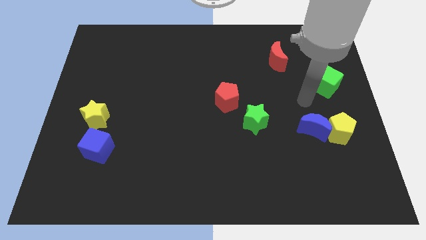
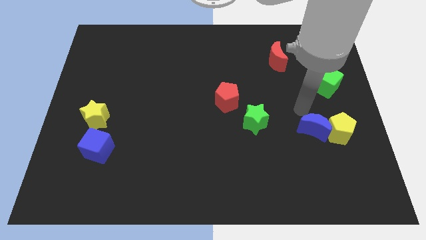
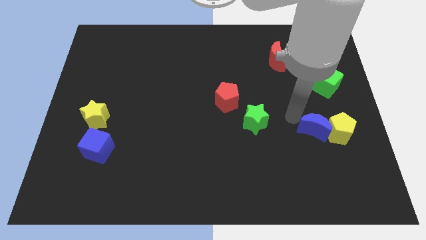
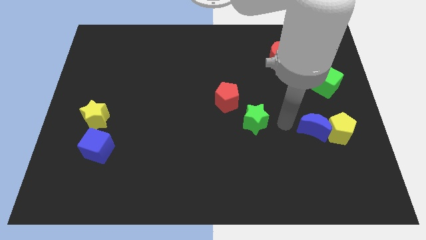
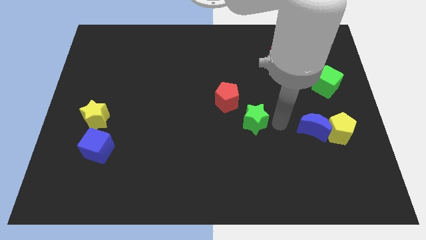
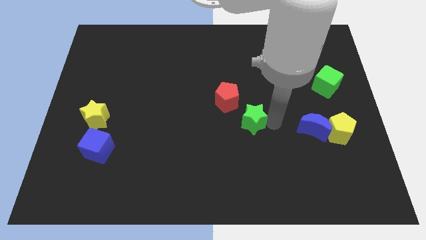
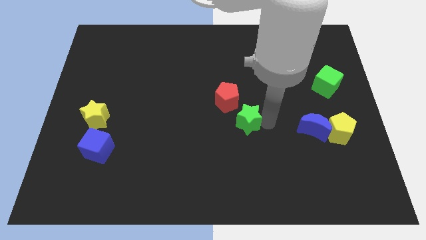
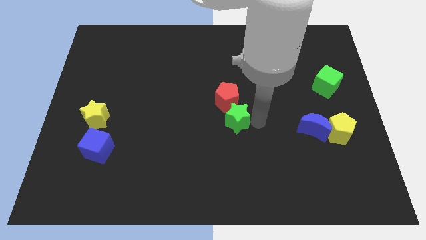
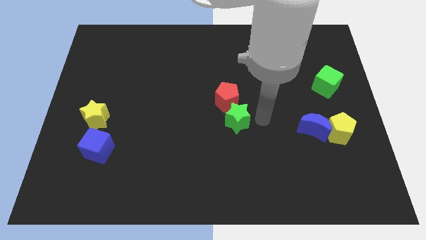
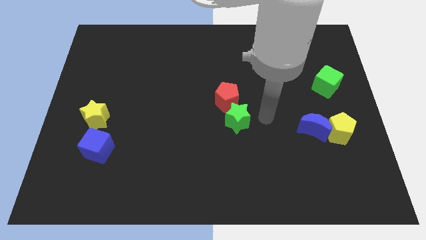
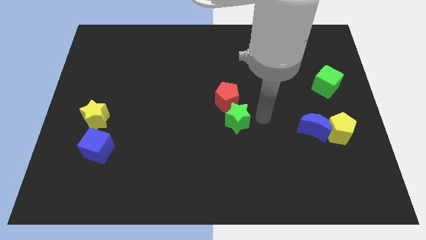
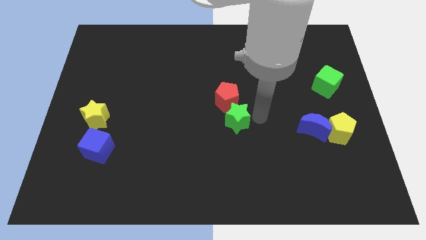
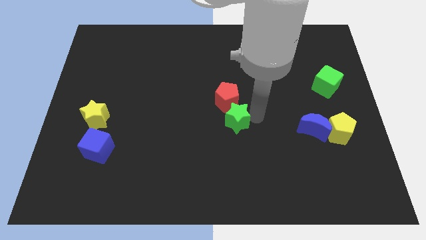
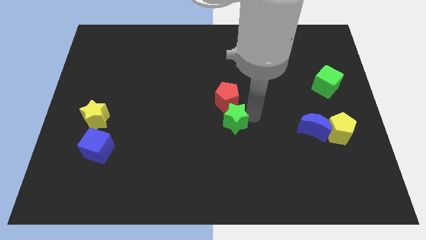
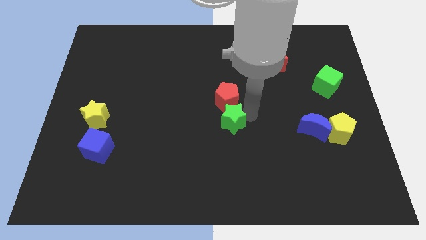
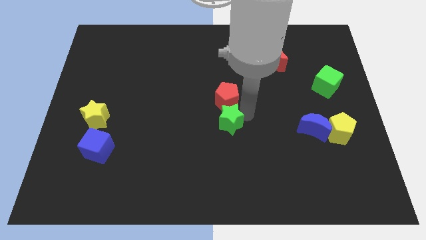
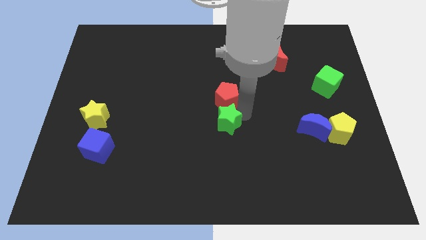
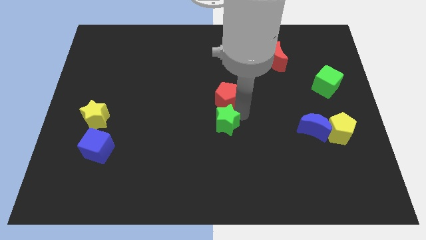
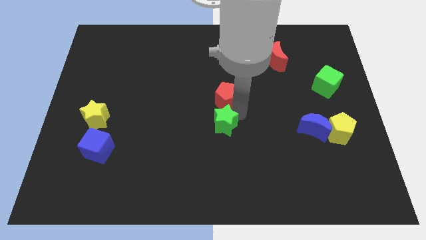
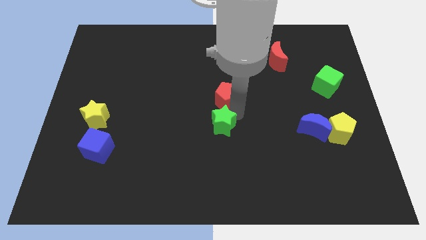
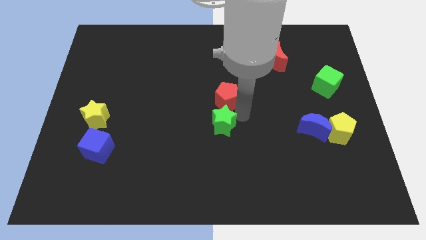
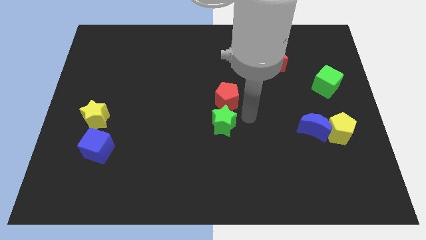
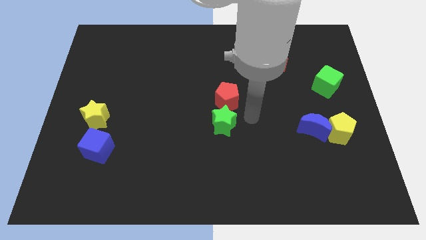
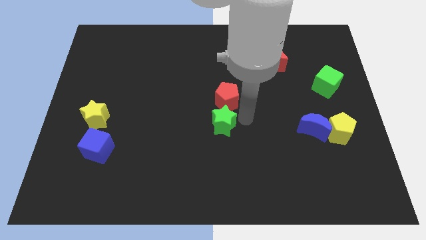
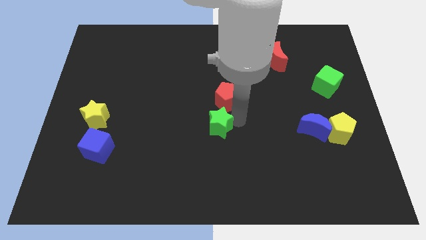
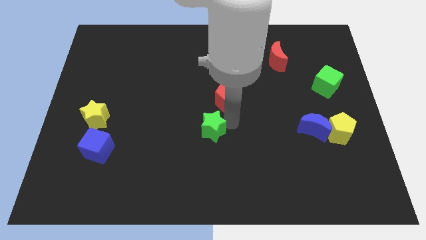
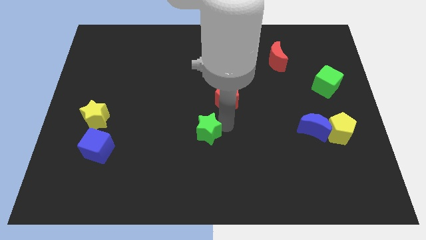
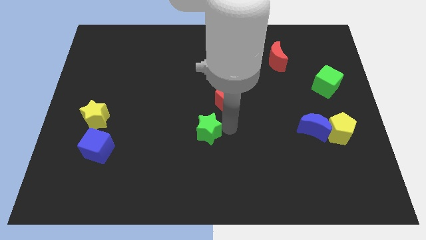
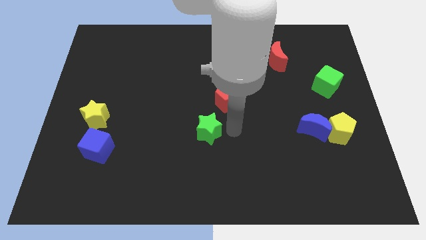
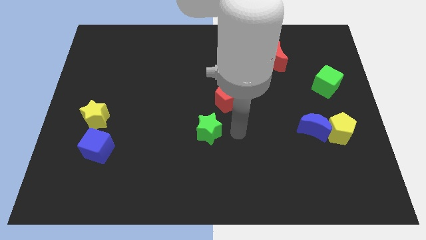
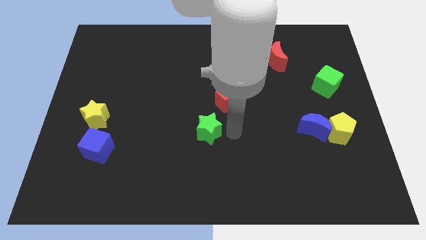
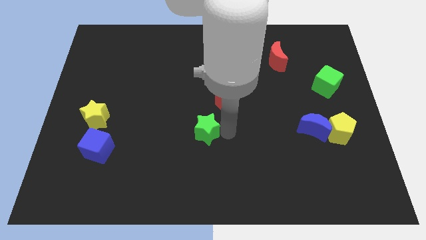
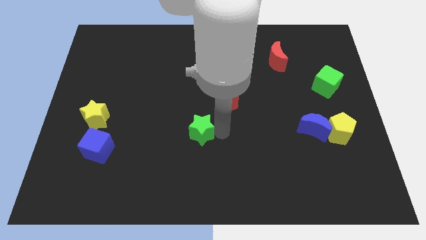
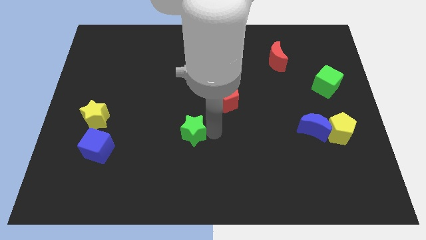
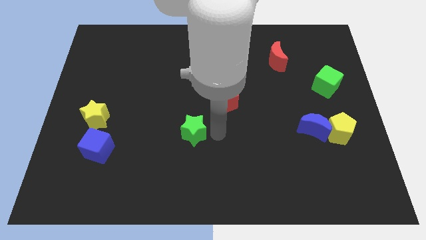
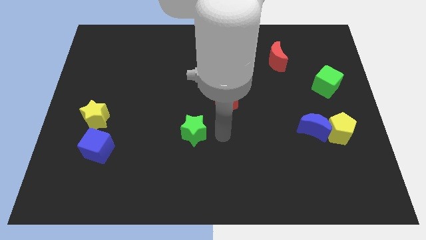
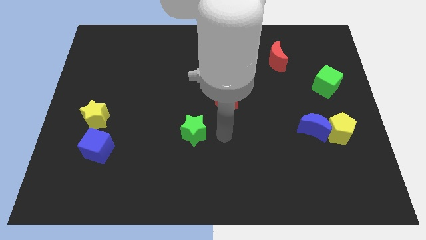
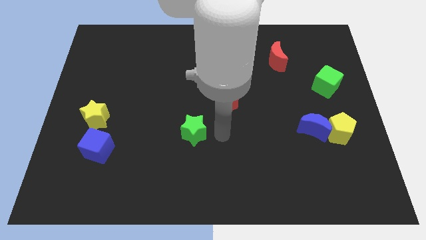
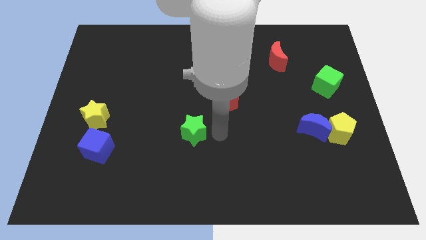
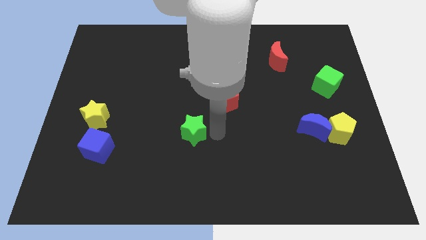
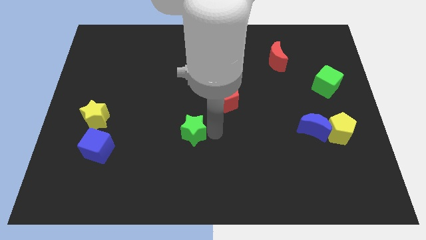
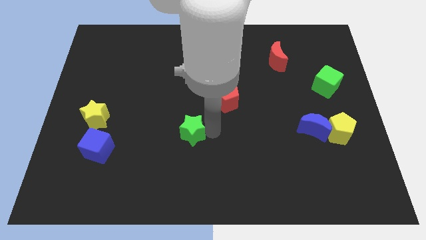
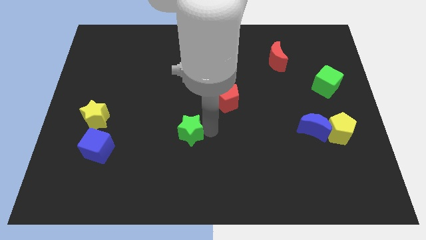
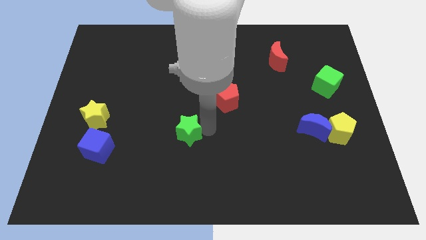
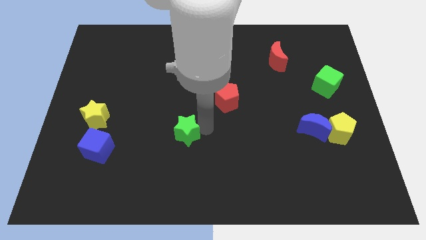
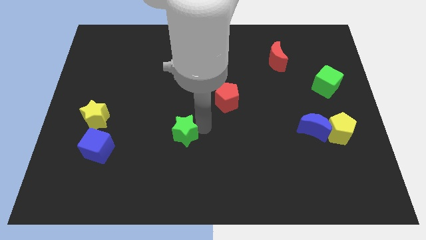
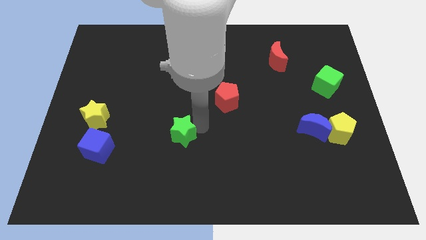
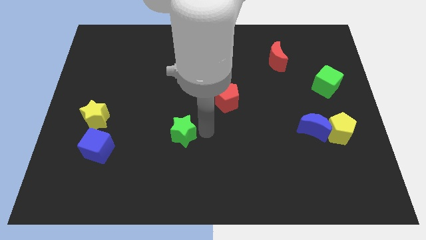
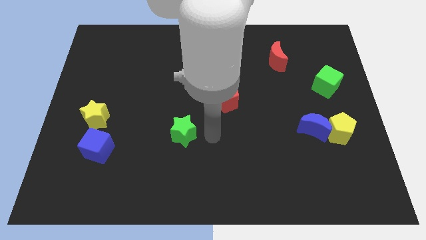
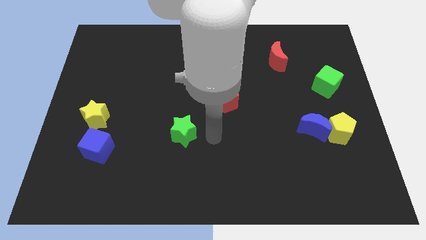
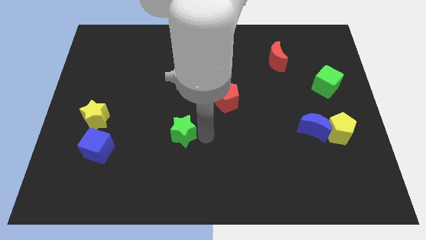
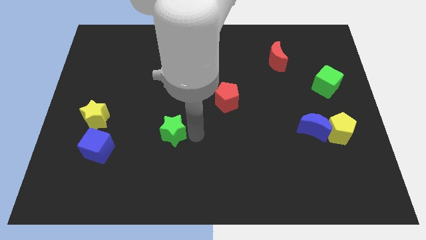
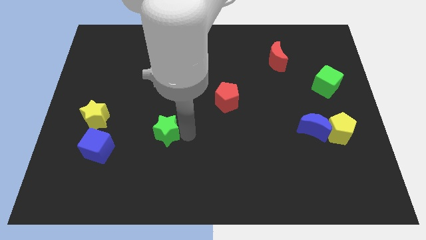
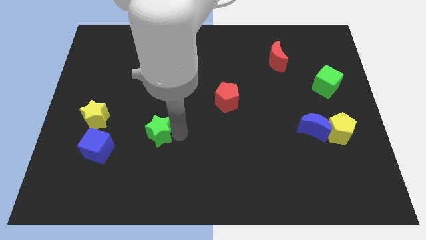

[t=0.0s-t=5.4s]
move the green star left

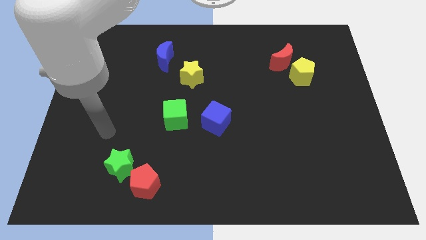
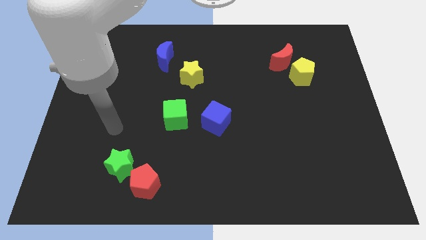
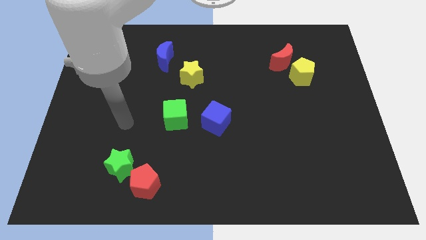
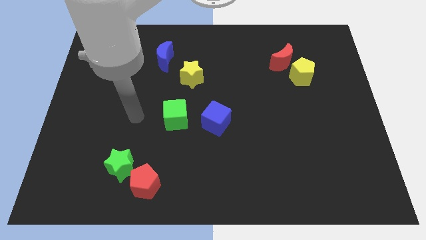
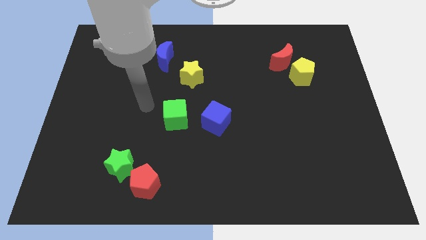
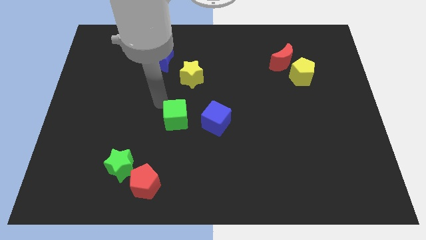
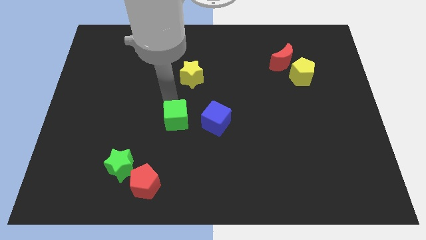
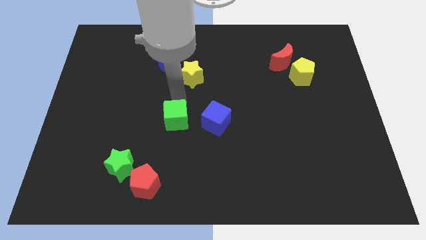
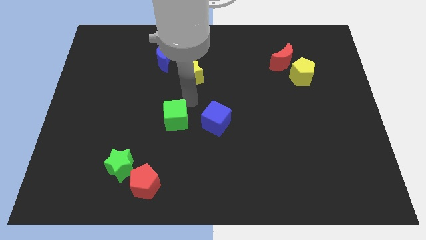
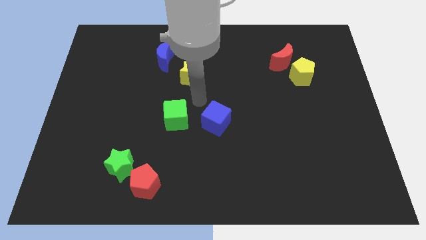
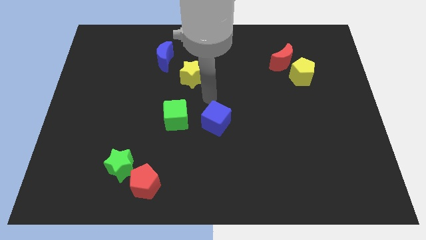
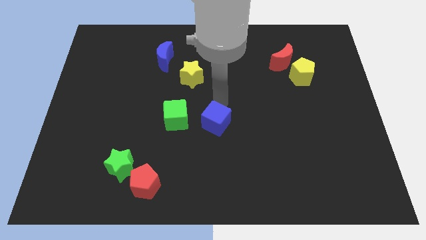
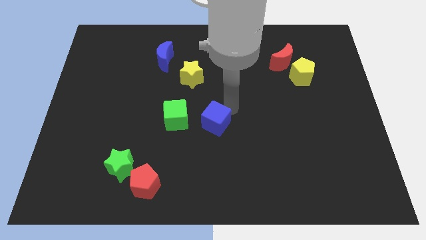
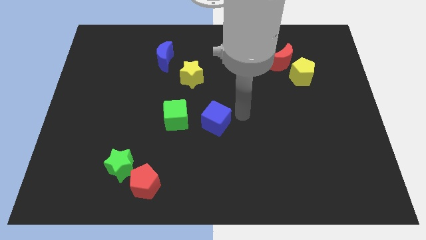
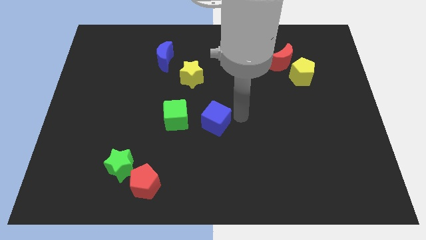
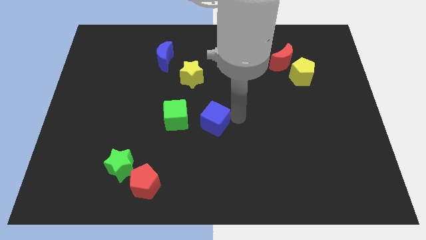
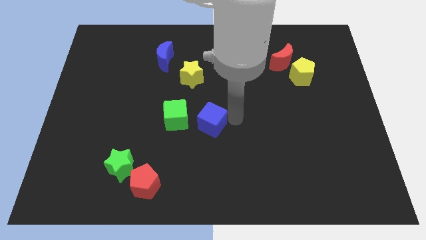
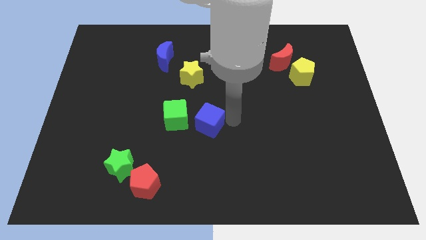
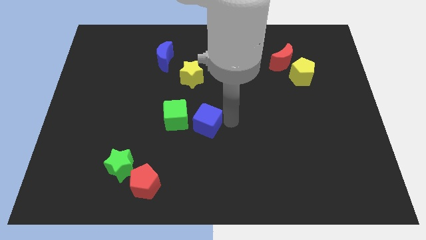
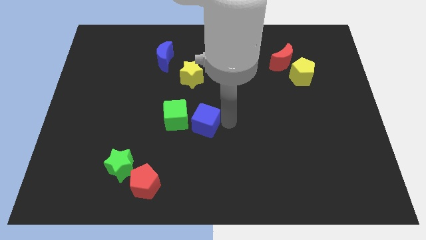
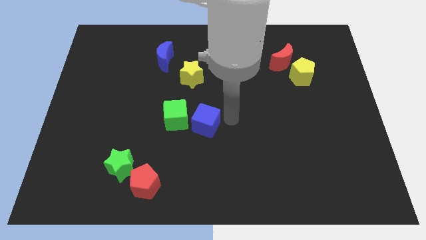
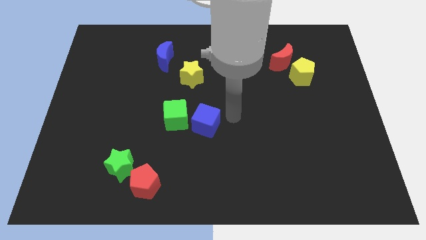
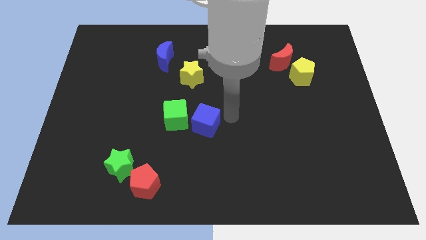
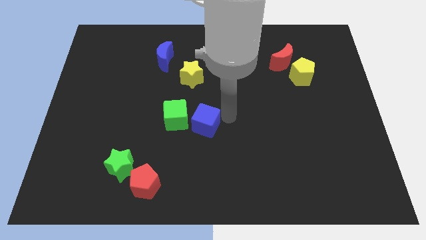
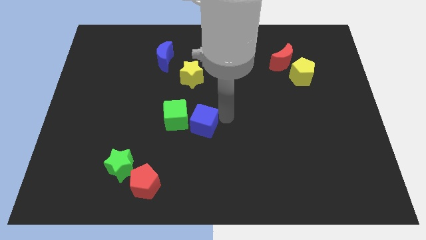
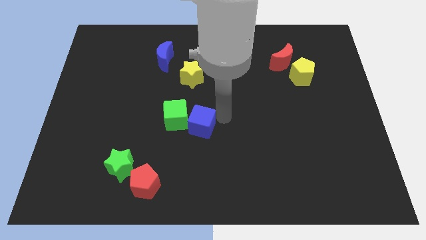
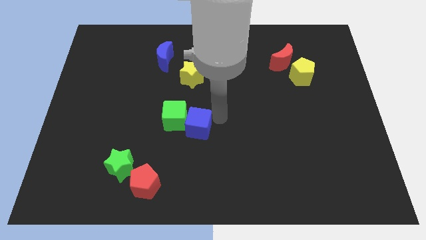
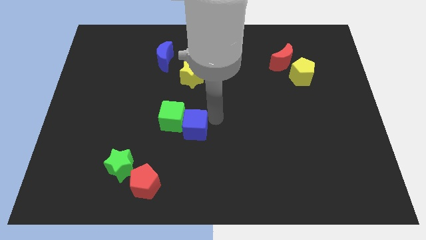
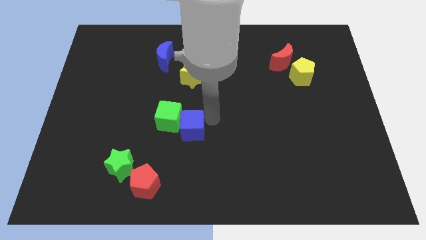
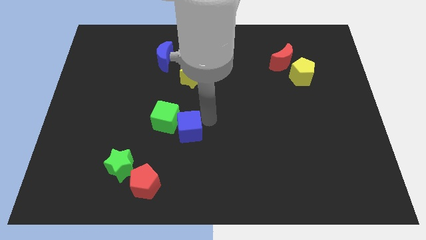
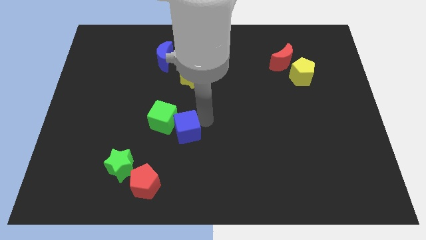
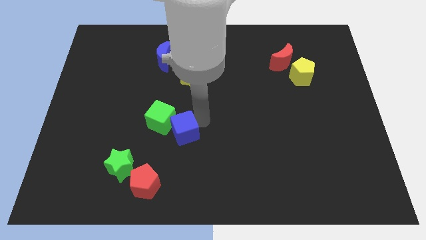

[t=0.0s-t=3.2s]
move the blue cube a little to the left
